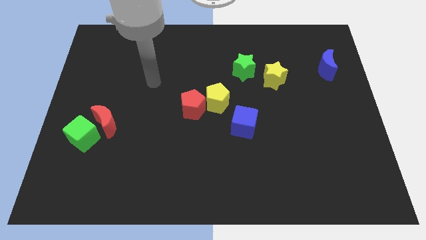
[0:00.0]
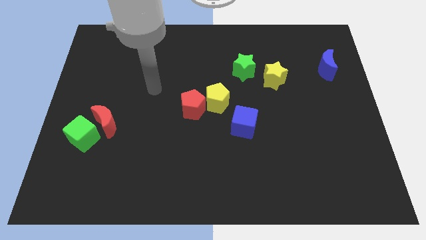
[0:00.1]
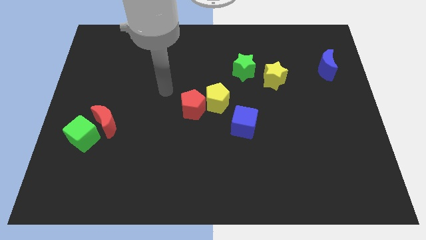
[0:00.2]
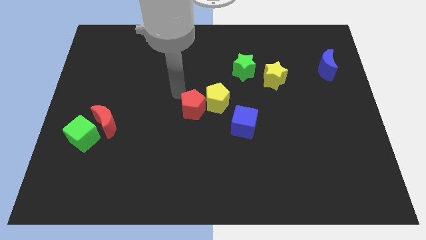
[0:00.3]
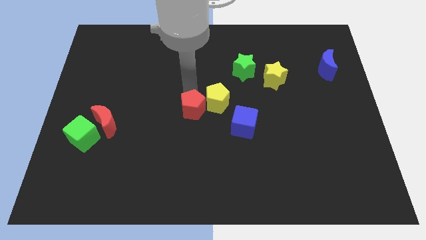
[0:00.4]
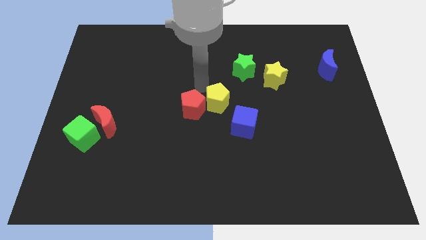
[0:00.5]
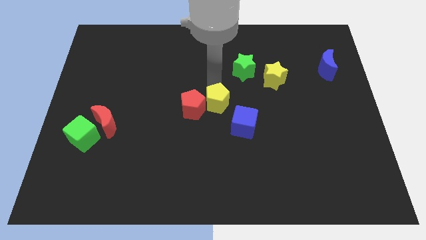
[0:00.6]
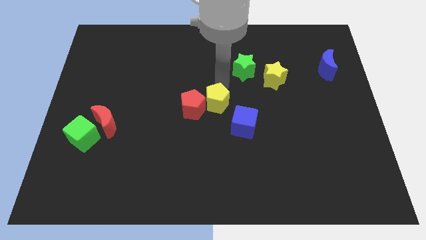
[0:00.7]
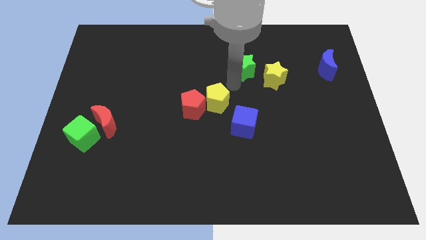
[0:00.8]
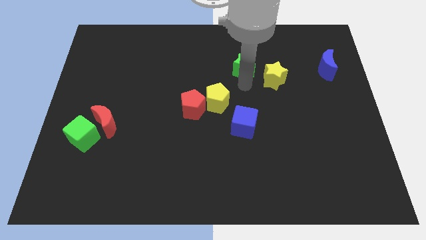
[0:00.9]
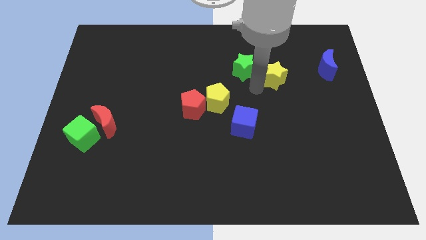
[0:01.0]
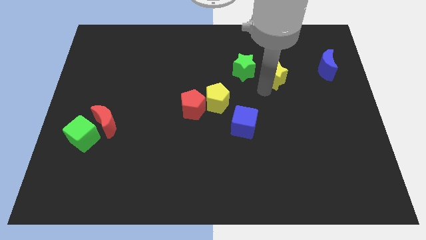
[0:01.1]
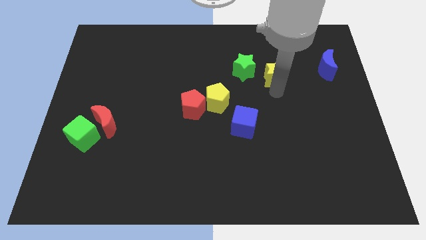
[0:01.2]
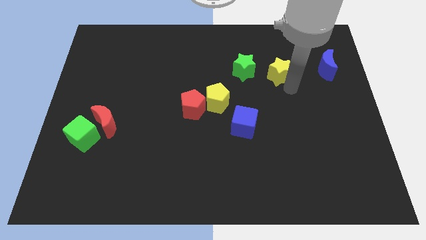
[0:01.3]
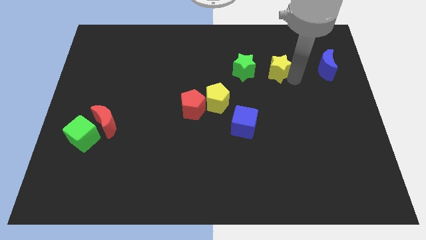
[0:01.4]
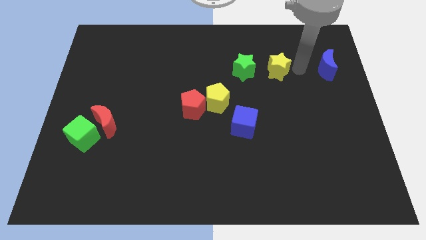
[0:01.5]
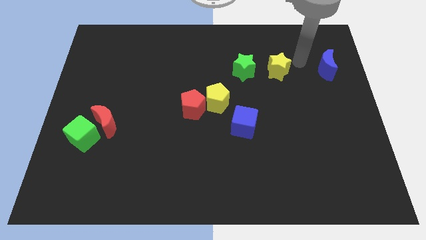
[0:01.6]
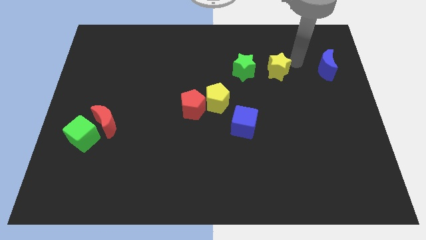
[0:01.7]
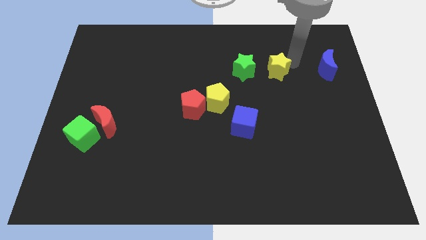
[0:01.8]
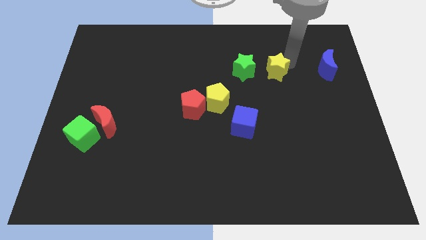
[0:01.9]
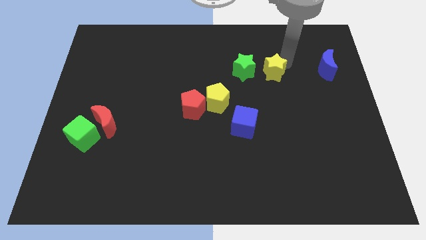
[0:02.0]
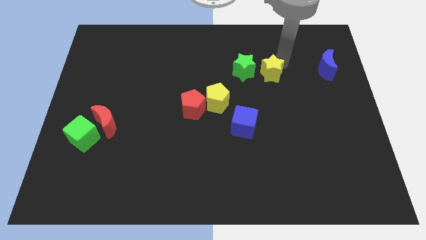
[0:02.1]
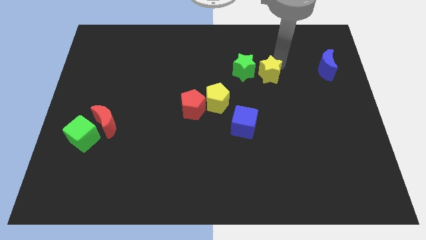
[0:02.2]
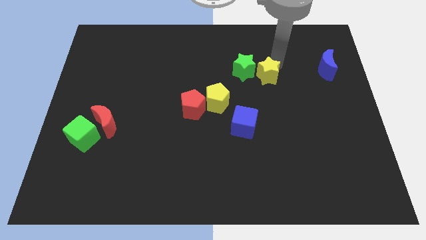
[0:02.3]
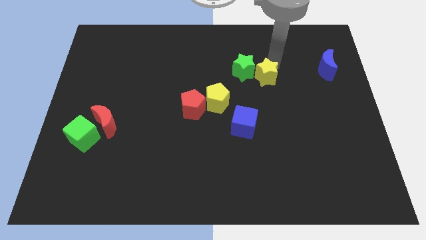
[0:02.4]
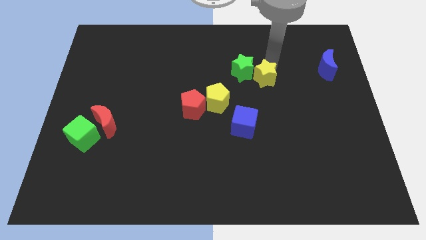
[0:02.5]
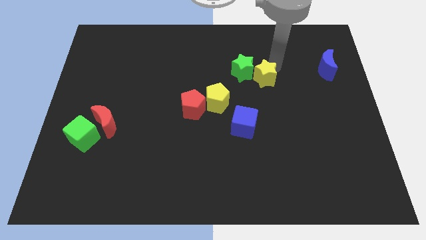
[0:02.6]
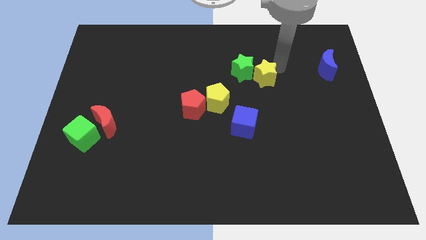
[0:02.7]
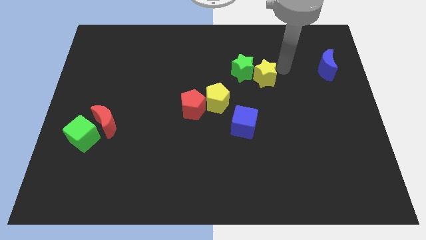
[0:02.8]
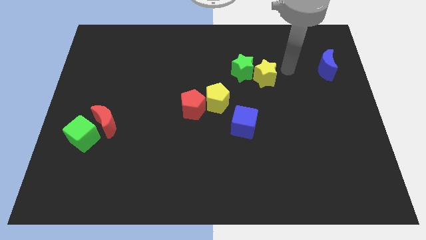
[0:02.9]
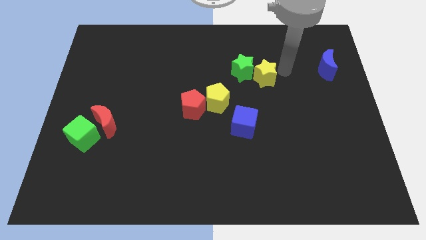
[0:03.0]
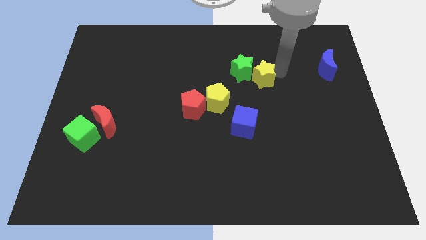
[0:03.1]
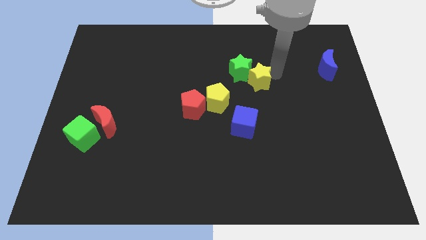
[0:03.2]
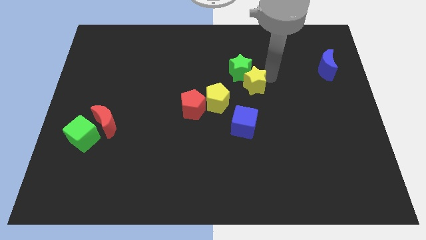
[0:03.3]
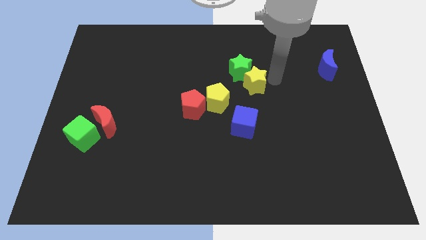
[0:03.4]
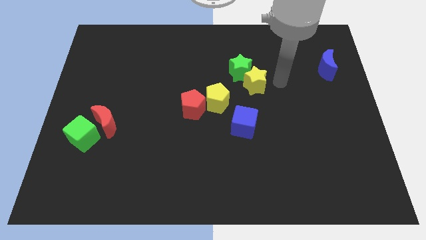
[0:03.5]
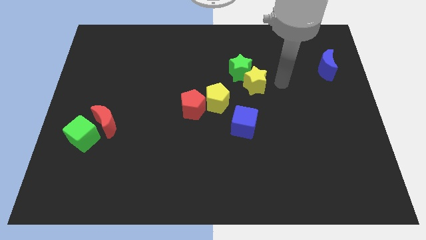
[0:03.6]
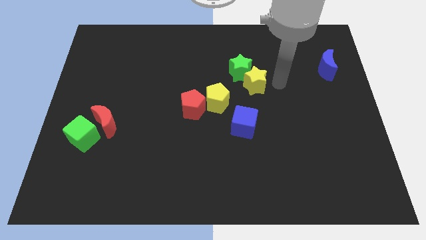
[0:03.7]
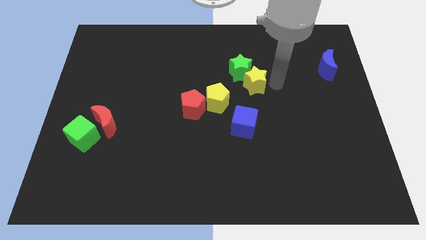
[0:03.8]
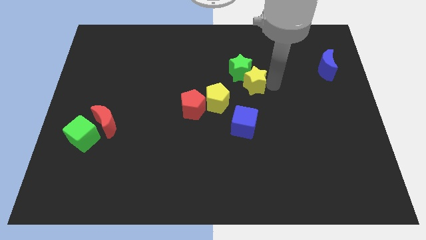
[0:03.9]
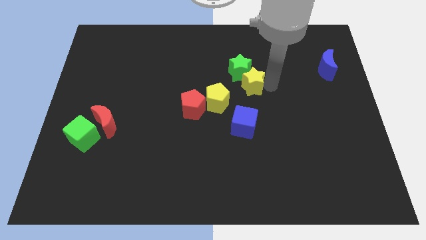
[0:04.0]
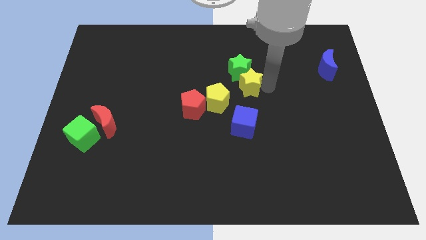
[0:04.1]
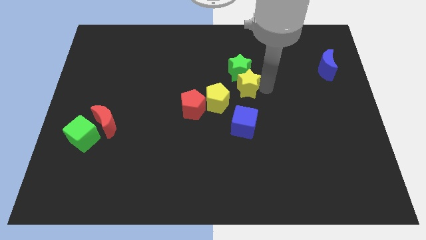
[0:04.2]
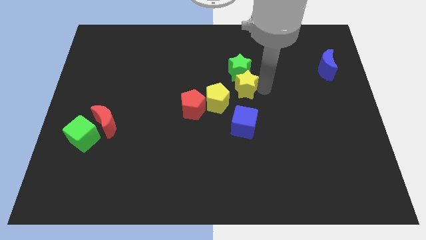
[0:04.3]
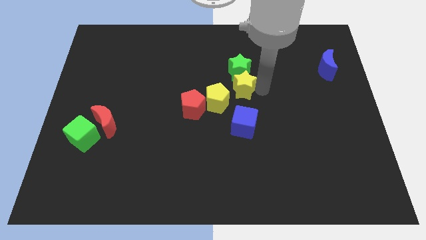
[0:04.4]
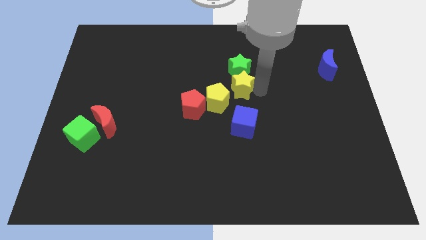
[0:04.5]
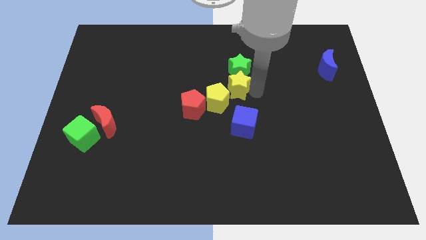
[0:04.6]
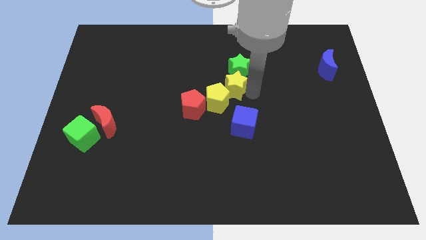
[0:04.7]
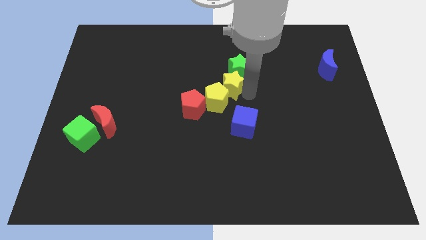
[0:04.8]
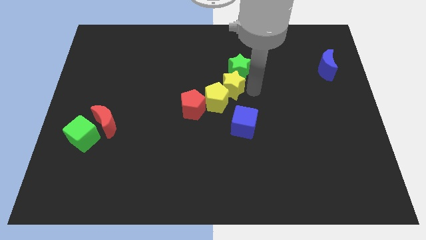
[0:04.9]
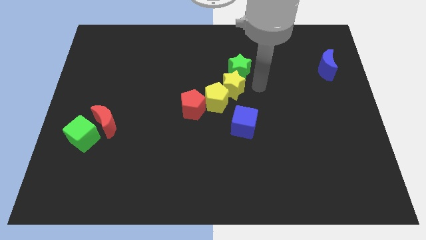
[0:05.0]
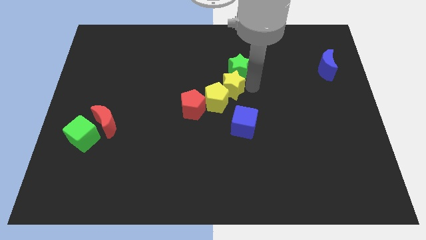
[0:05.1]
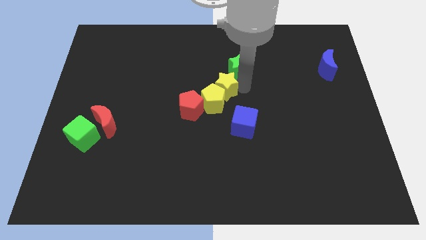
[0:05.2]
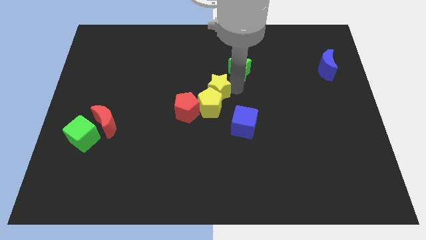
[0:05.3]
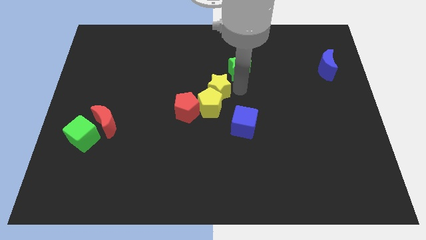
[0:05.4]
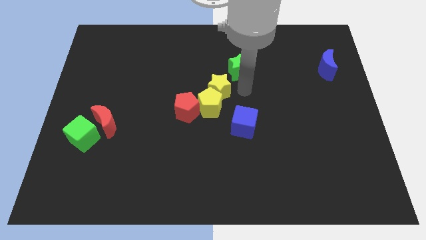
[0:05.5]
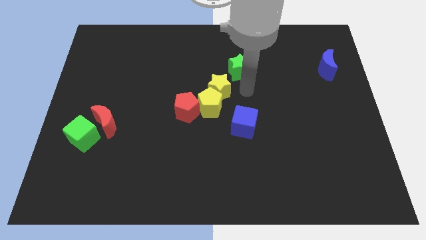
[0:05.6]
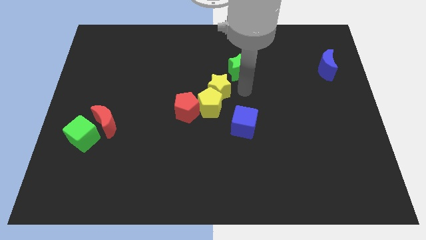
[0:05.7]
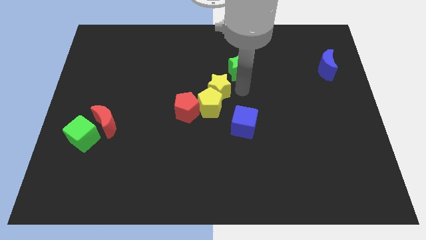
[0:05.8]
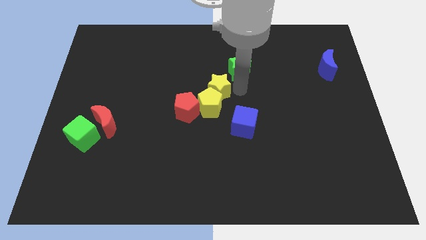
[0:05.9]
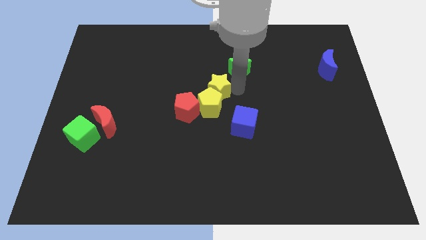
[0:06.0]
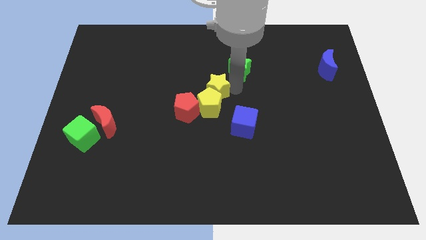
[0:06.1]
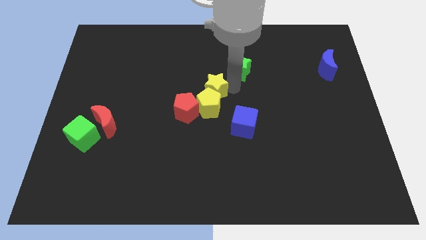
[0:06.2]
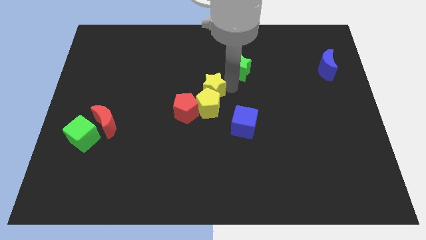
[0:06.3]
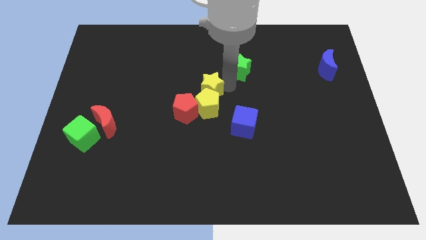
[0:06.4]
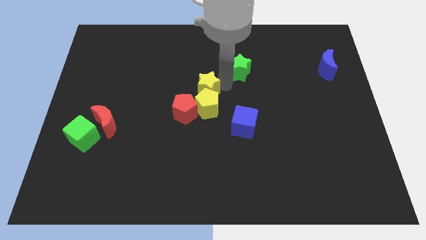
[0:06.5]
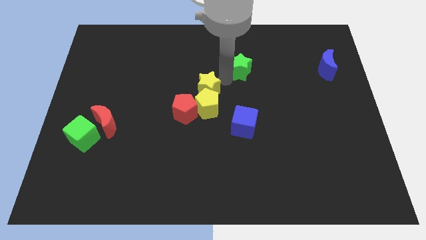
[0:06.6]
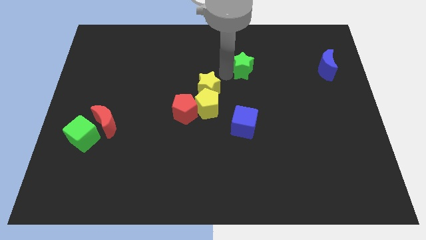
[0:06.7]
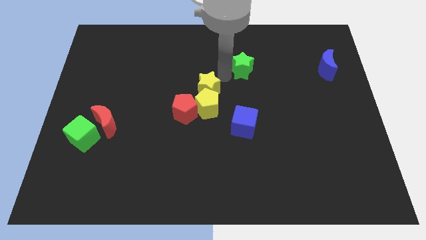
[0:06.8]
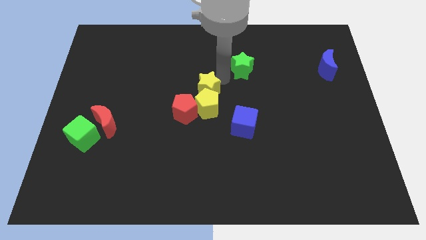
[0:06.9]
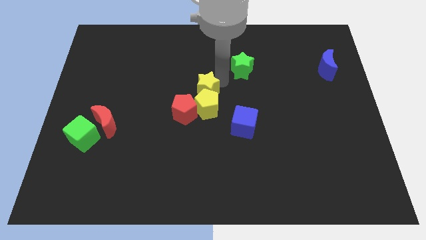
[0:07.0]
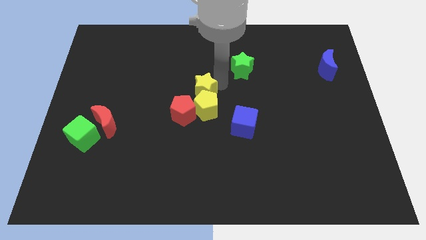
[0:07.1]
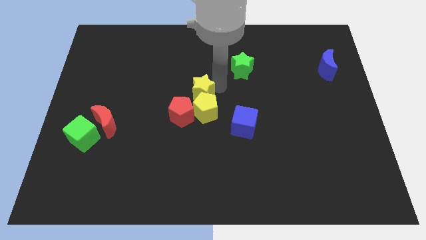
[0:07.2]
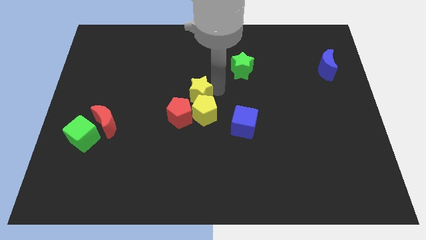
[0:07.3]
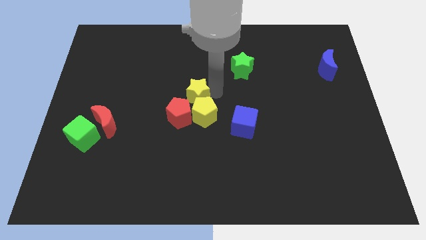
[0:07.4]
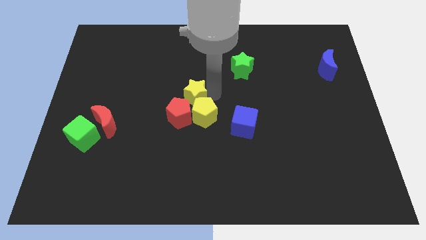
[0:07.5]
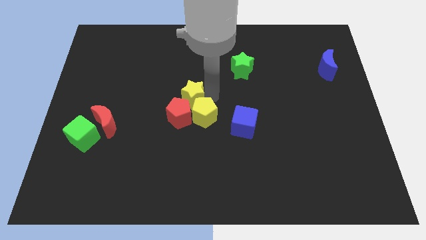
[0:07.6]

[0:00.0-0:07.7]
slide the yellow star next to the red pentagon
